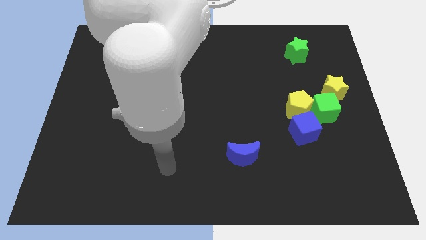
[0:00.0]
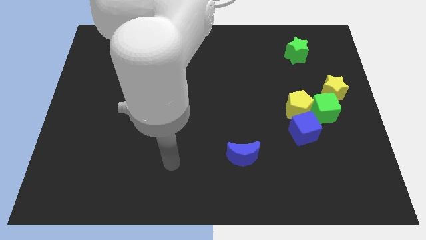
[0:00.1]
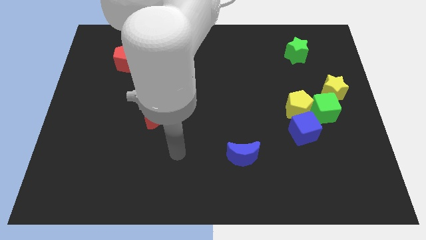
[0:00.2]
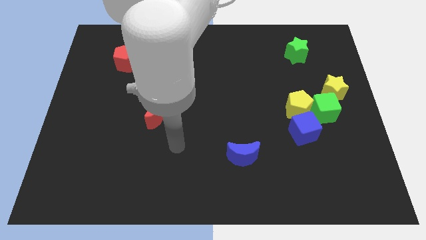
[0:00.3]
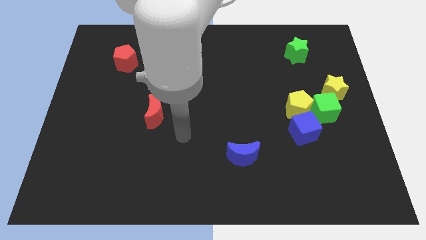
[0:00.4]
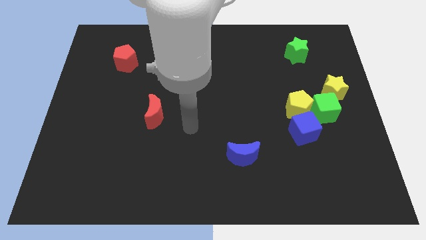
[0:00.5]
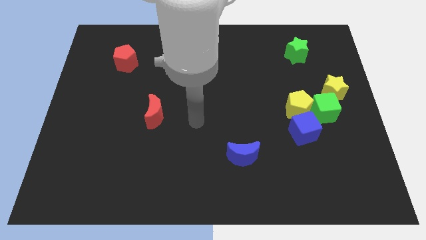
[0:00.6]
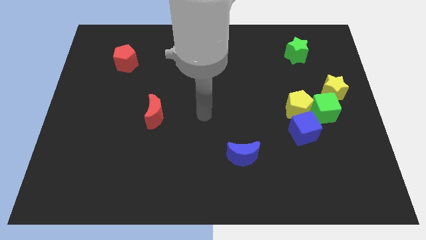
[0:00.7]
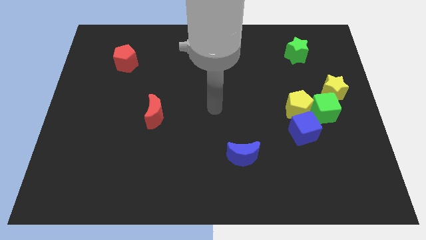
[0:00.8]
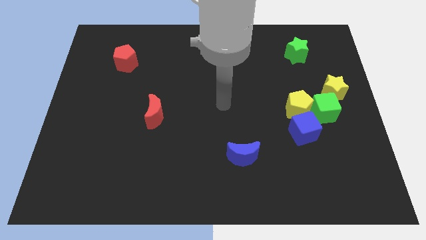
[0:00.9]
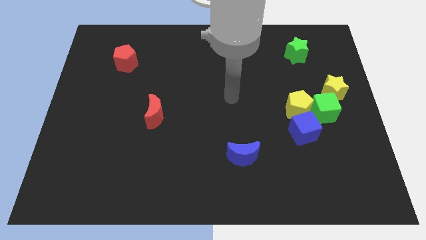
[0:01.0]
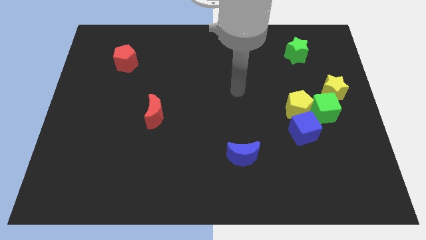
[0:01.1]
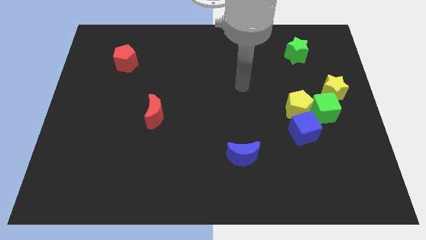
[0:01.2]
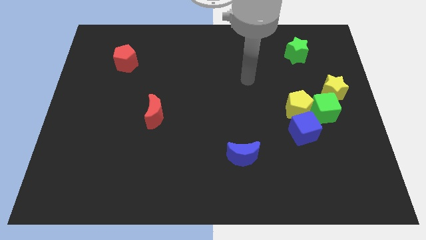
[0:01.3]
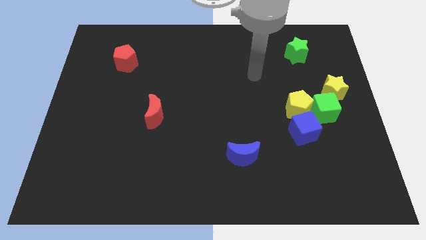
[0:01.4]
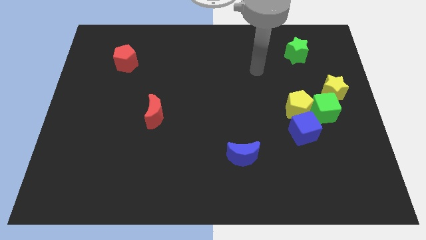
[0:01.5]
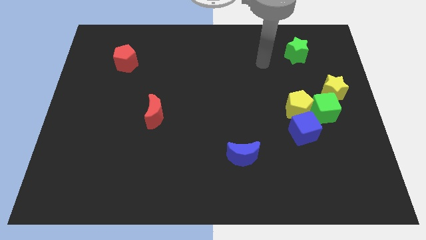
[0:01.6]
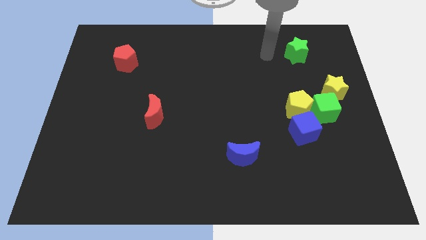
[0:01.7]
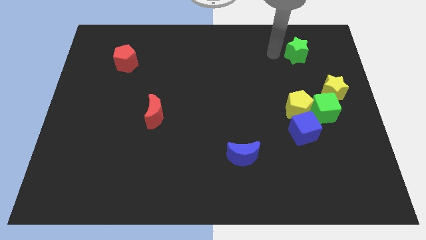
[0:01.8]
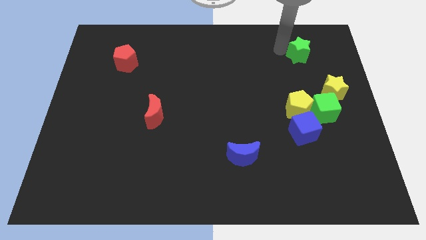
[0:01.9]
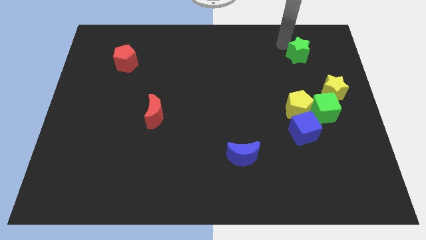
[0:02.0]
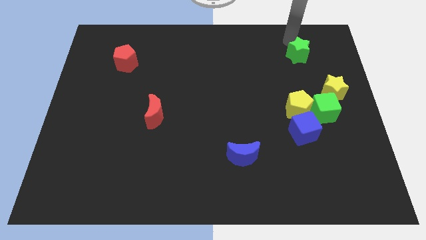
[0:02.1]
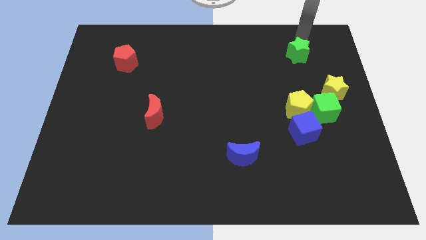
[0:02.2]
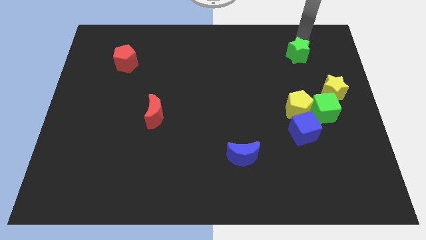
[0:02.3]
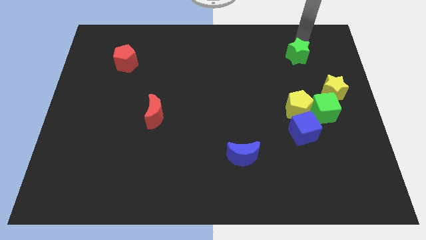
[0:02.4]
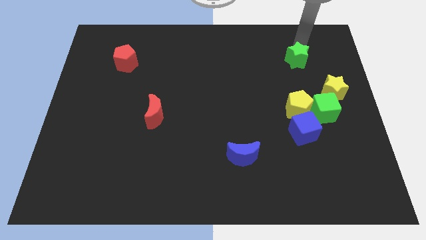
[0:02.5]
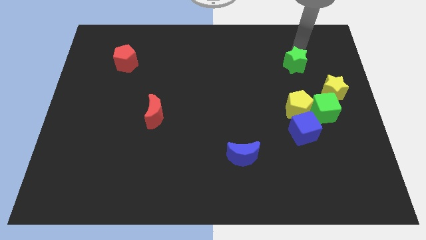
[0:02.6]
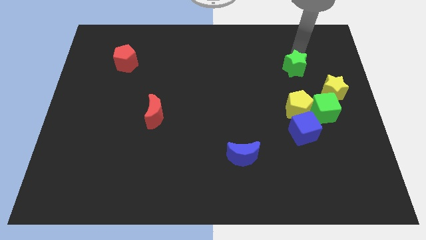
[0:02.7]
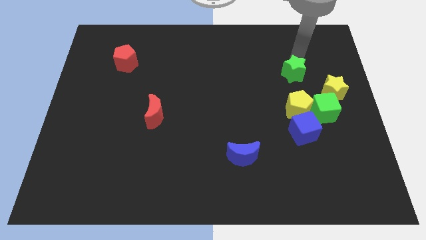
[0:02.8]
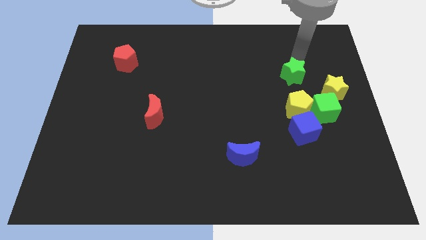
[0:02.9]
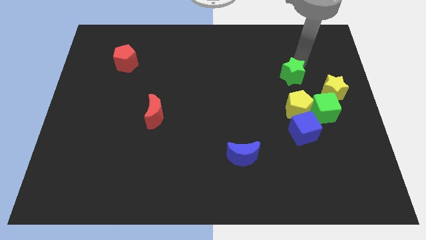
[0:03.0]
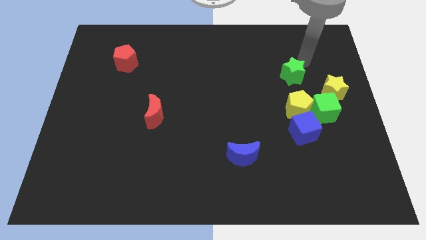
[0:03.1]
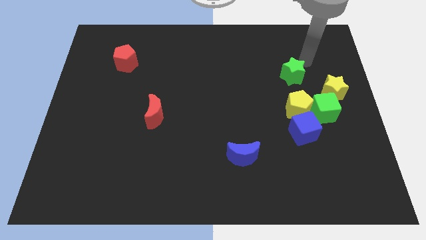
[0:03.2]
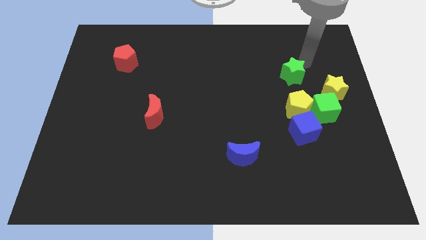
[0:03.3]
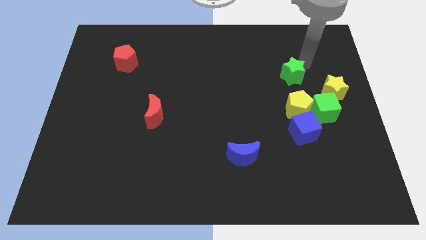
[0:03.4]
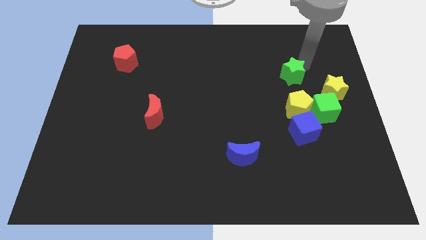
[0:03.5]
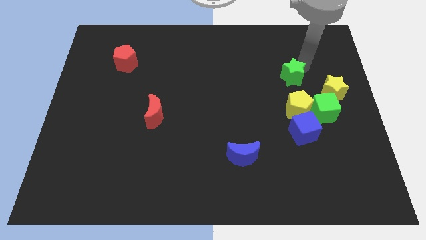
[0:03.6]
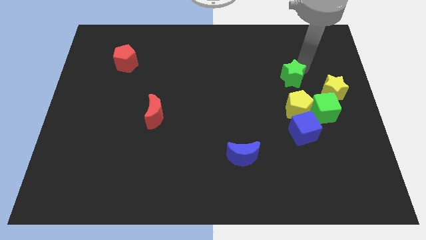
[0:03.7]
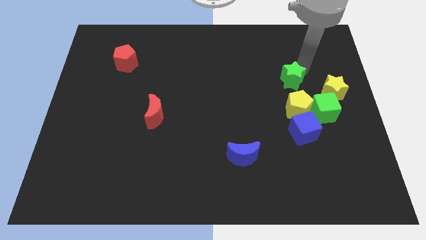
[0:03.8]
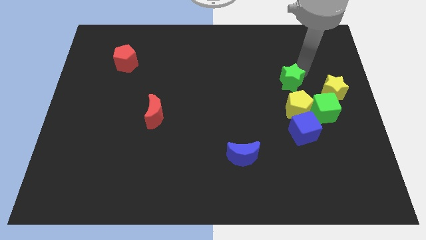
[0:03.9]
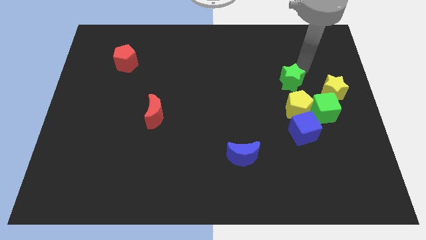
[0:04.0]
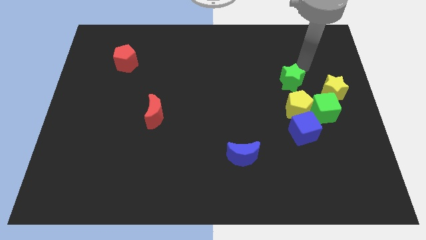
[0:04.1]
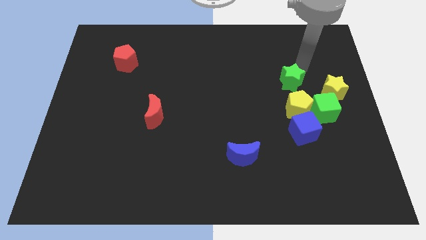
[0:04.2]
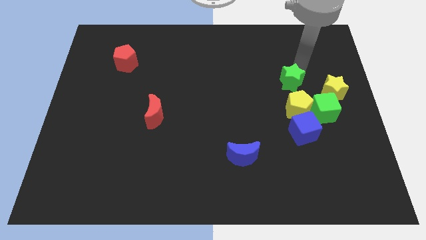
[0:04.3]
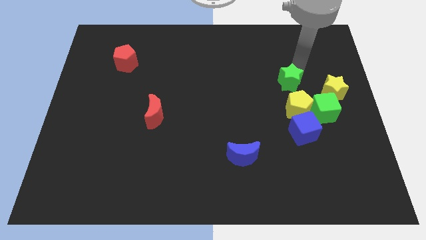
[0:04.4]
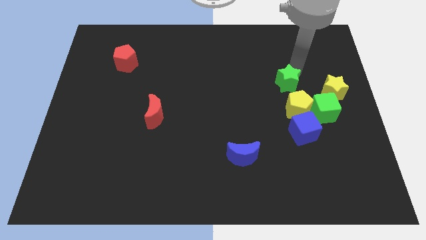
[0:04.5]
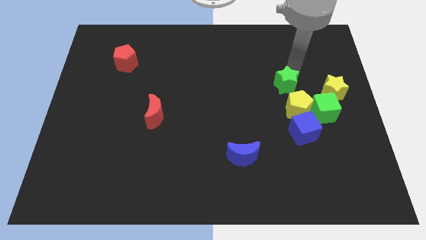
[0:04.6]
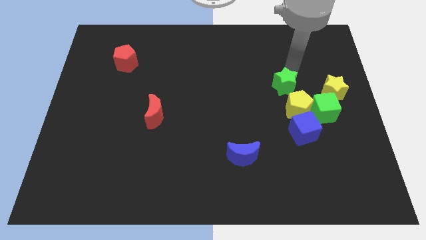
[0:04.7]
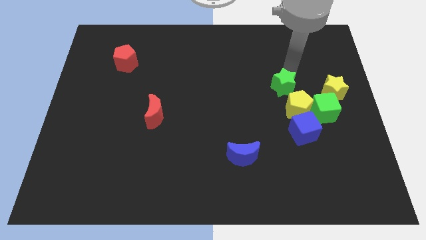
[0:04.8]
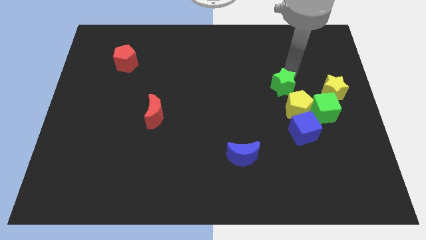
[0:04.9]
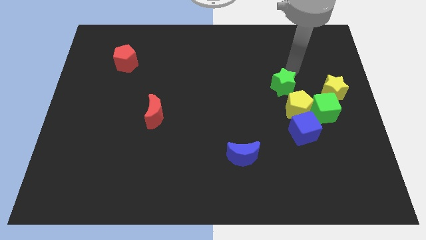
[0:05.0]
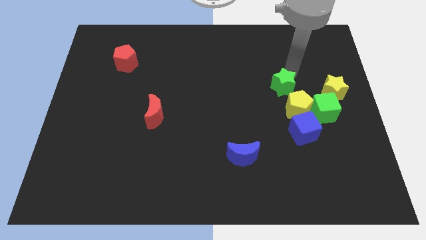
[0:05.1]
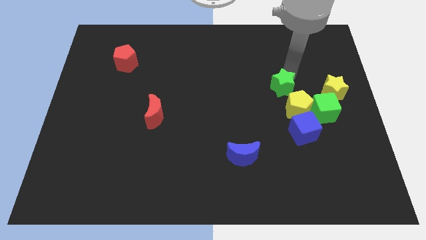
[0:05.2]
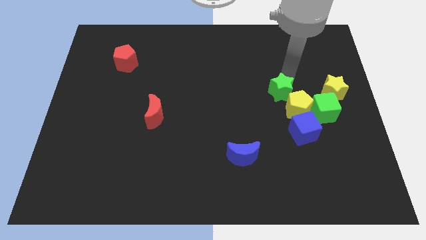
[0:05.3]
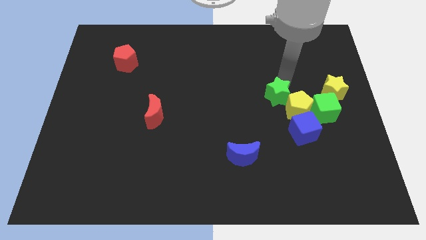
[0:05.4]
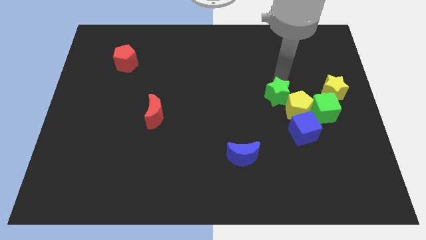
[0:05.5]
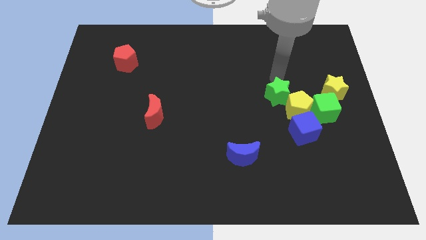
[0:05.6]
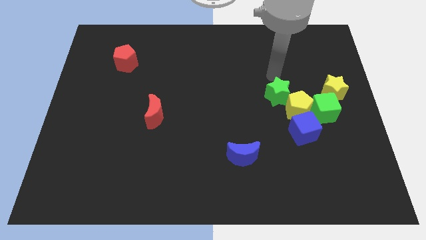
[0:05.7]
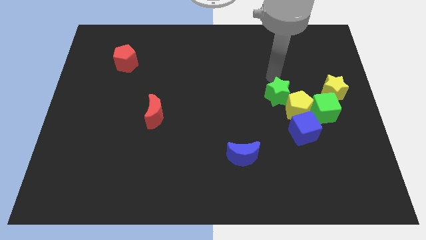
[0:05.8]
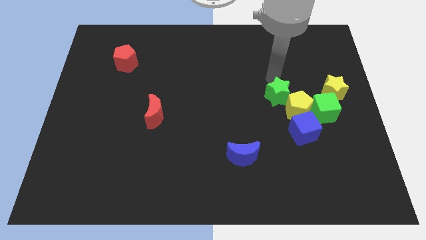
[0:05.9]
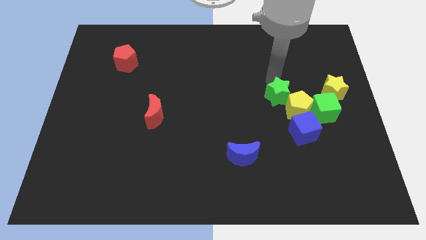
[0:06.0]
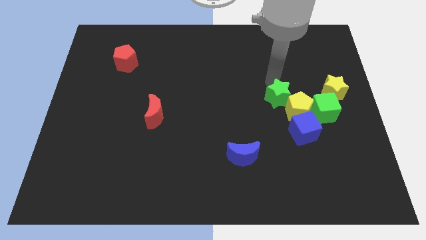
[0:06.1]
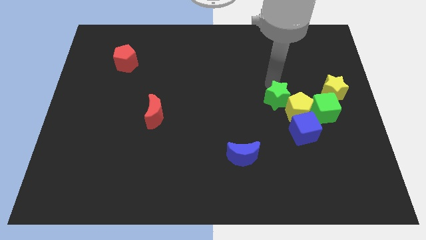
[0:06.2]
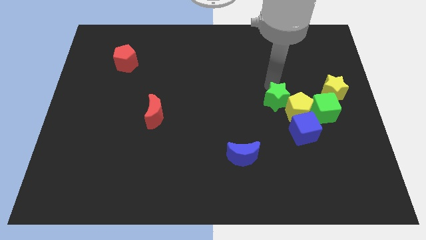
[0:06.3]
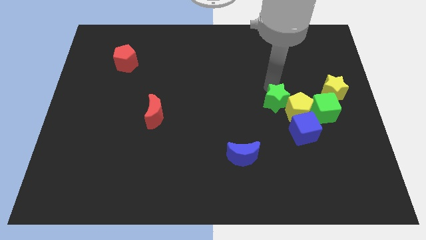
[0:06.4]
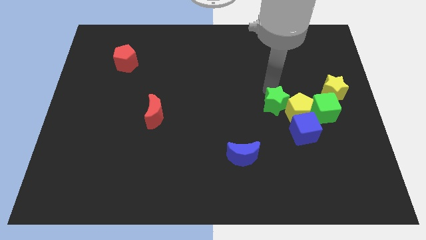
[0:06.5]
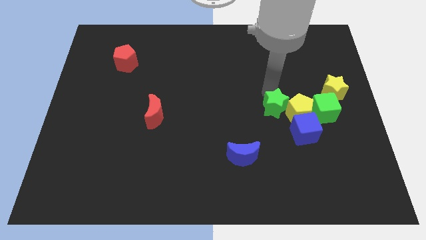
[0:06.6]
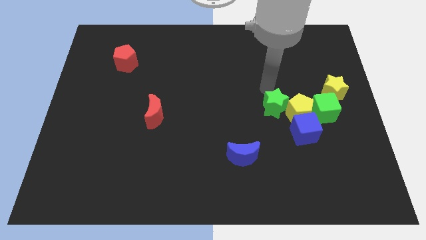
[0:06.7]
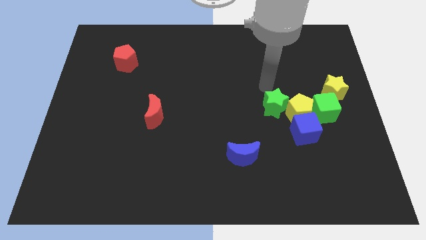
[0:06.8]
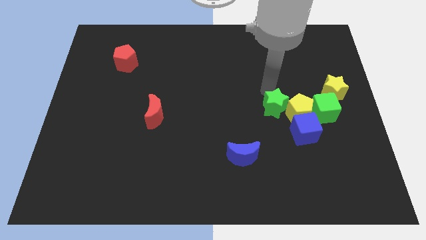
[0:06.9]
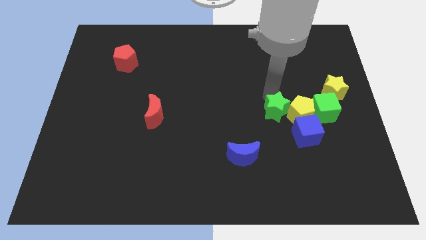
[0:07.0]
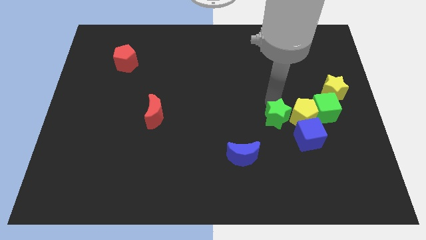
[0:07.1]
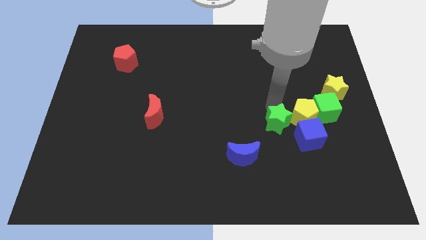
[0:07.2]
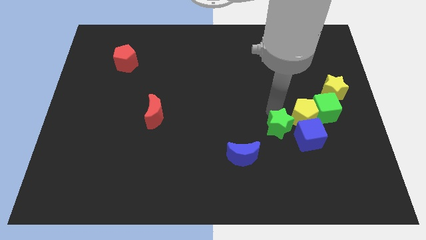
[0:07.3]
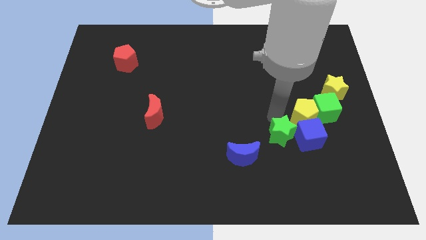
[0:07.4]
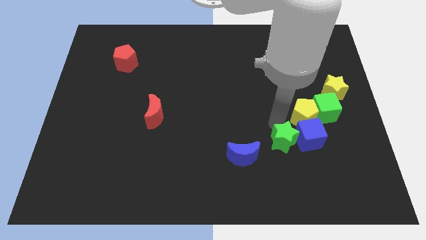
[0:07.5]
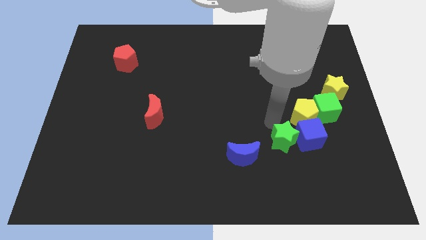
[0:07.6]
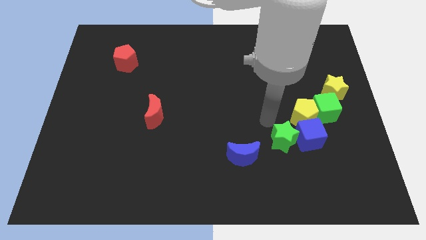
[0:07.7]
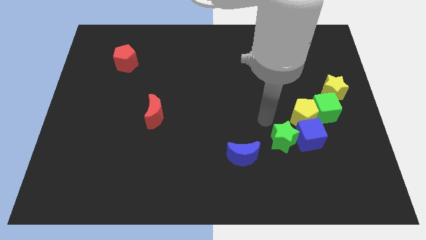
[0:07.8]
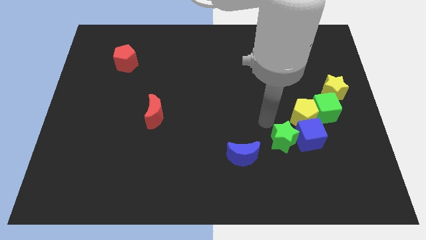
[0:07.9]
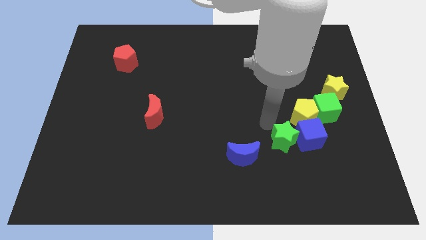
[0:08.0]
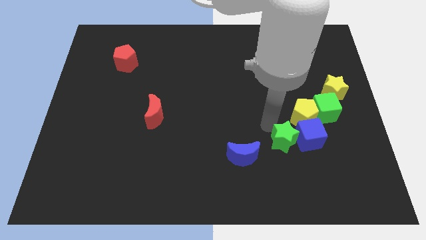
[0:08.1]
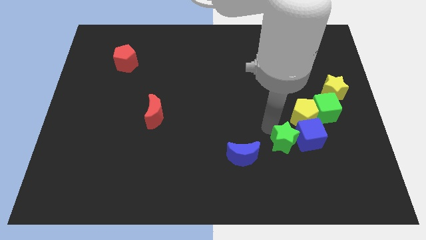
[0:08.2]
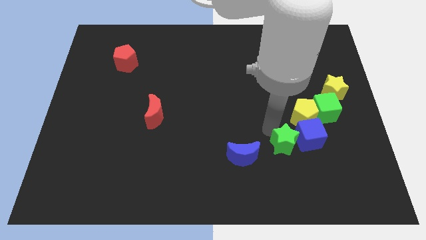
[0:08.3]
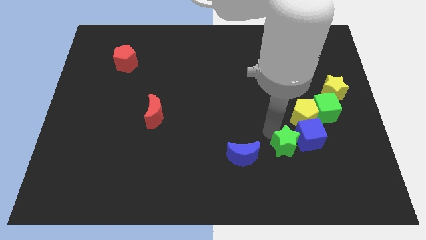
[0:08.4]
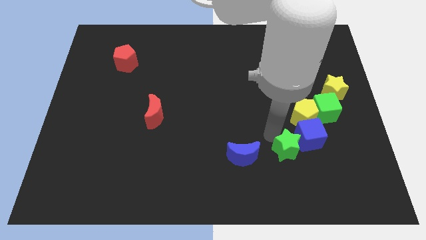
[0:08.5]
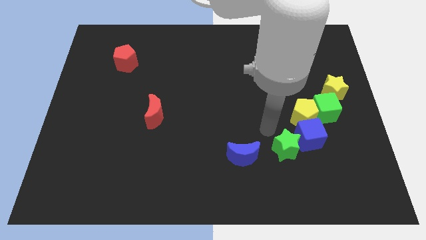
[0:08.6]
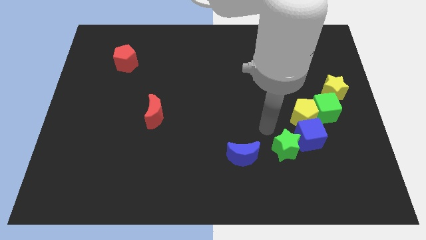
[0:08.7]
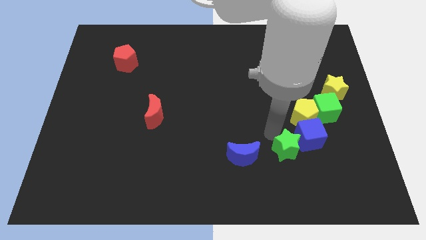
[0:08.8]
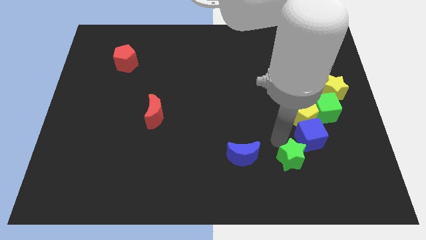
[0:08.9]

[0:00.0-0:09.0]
move the green star to the bottom of the blue cube
